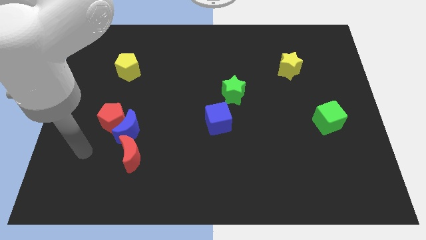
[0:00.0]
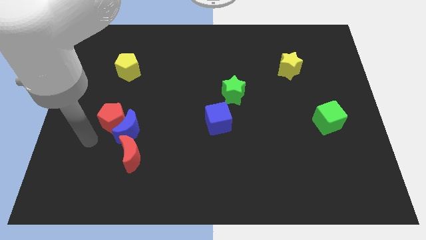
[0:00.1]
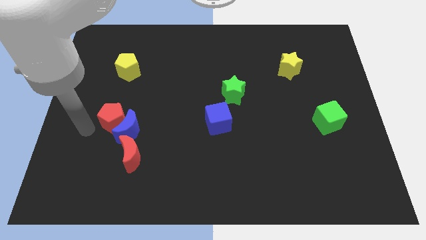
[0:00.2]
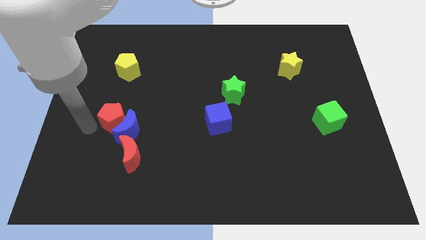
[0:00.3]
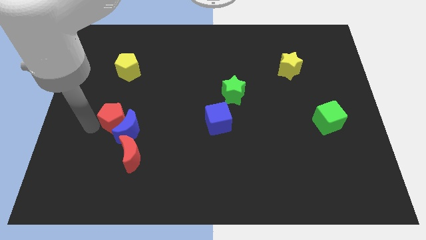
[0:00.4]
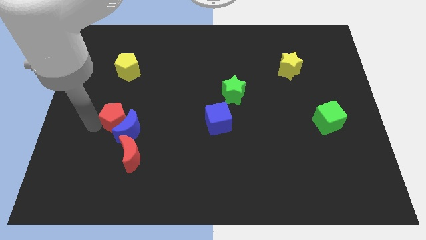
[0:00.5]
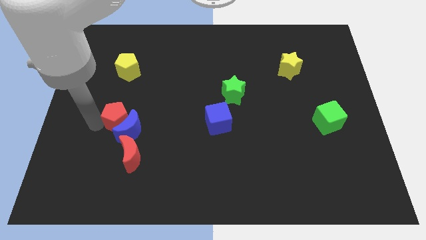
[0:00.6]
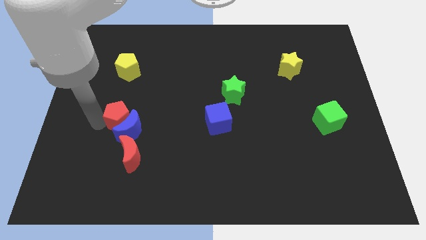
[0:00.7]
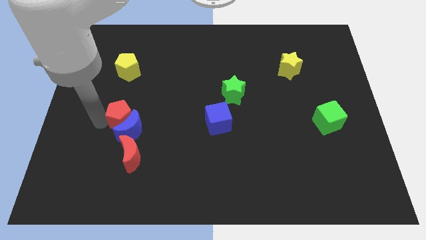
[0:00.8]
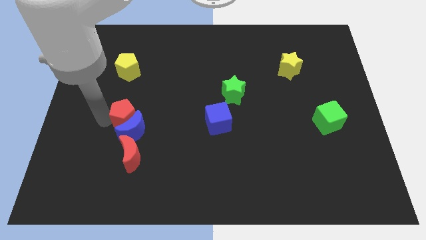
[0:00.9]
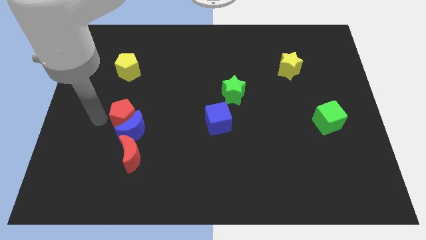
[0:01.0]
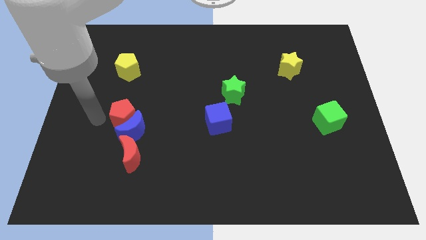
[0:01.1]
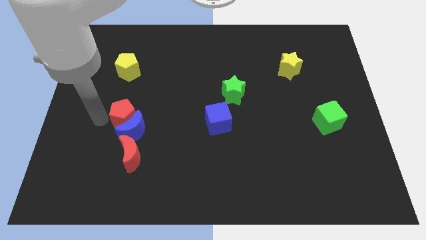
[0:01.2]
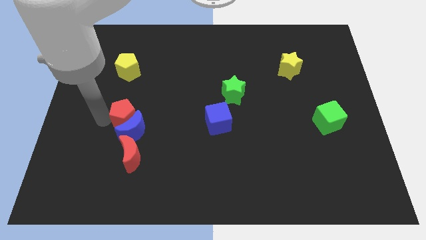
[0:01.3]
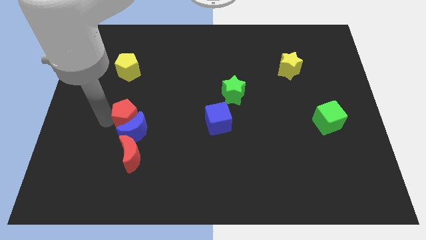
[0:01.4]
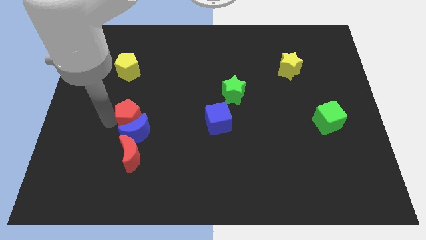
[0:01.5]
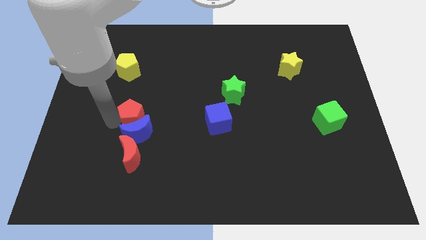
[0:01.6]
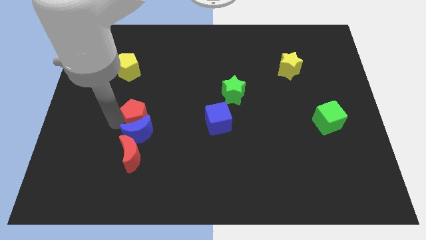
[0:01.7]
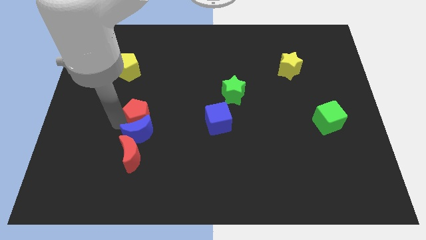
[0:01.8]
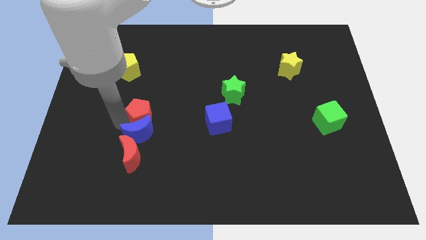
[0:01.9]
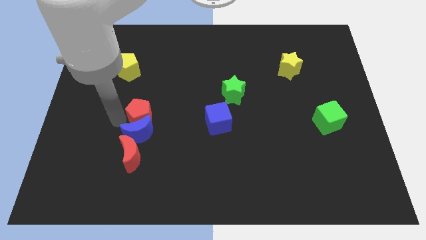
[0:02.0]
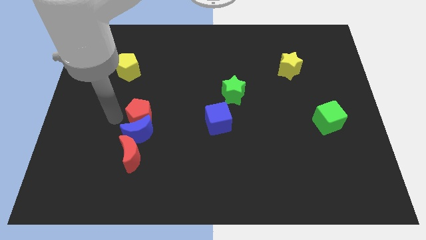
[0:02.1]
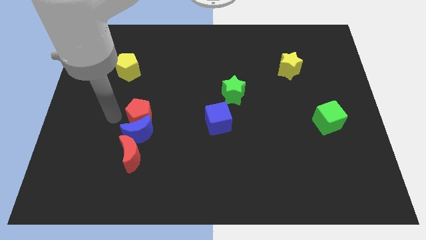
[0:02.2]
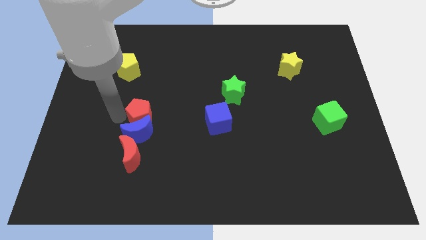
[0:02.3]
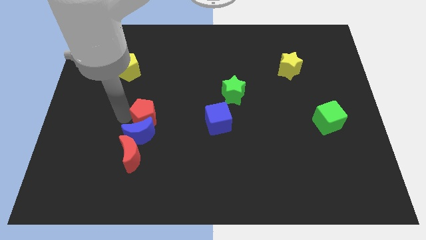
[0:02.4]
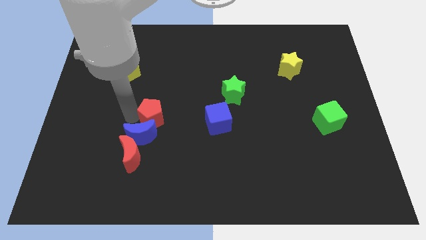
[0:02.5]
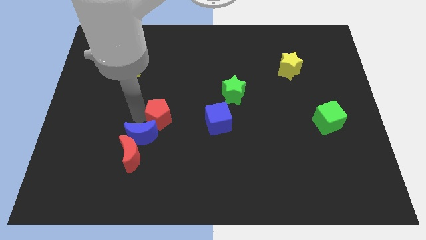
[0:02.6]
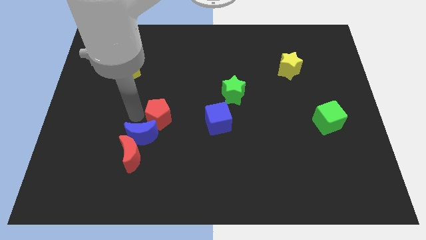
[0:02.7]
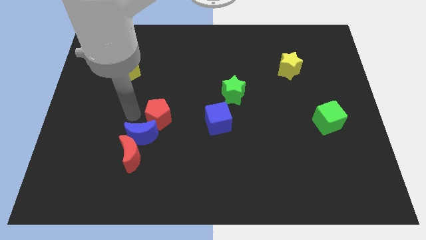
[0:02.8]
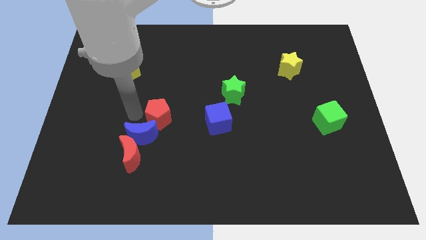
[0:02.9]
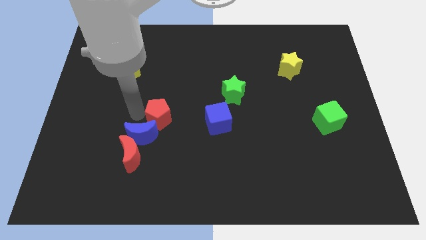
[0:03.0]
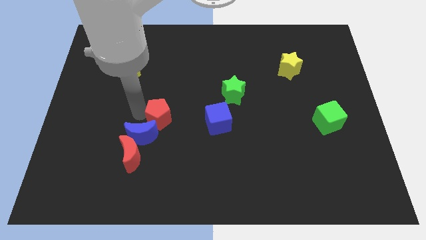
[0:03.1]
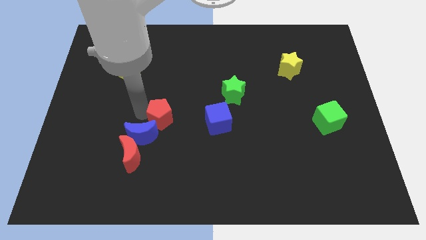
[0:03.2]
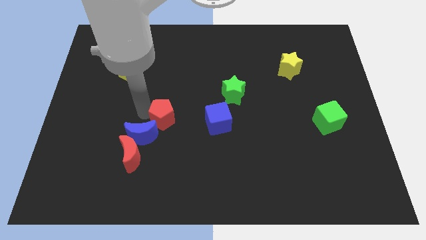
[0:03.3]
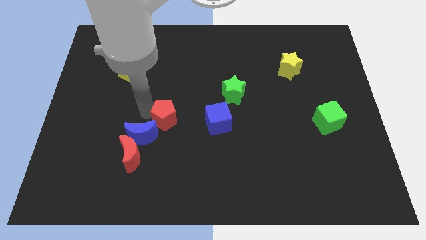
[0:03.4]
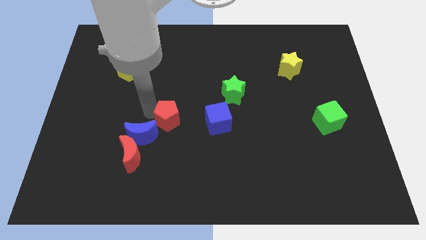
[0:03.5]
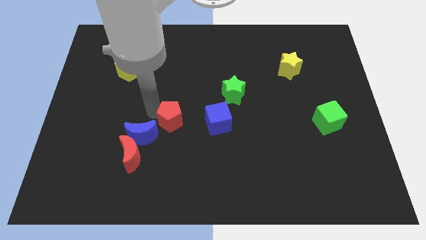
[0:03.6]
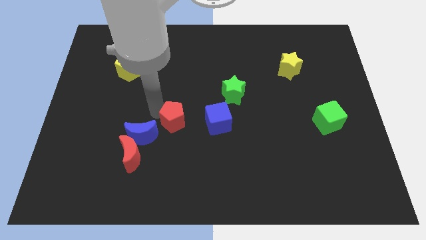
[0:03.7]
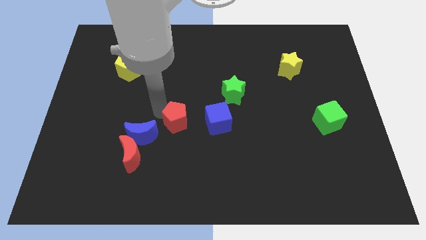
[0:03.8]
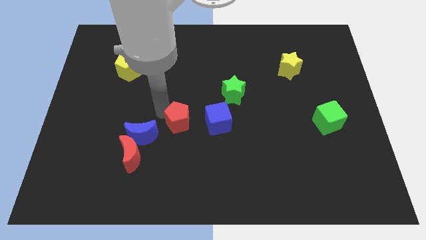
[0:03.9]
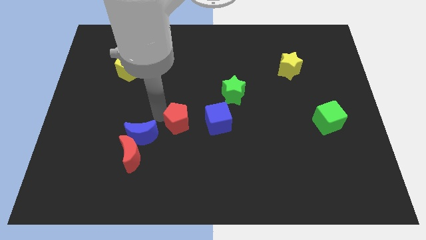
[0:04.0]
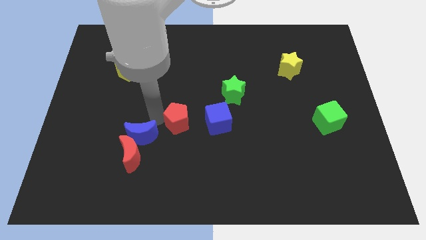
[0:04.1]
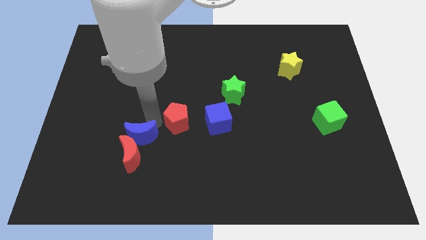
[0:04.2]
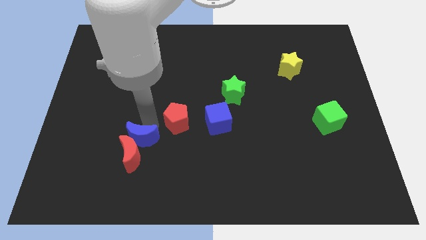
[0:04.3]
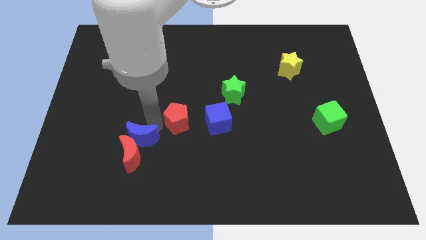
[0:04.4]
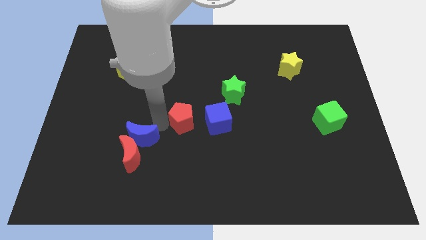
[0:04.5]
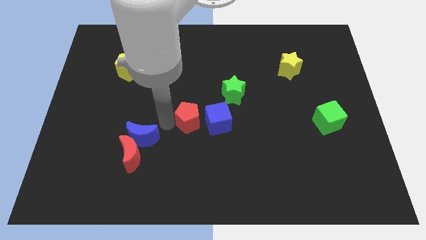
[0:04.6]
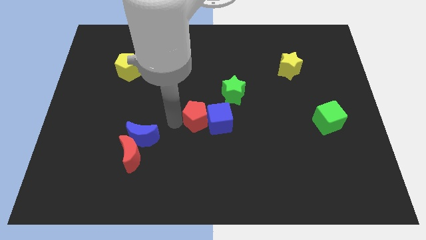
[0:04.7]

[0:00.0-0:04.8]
push the red pentagon next to the blue cube

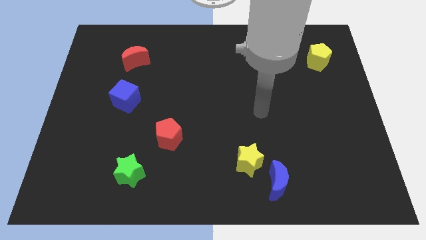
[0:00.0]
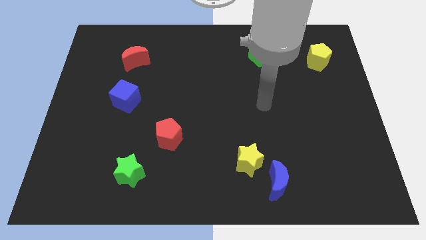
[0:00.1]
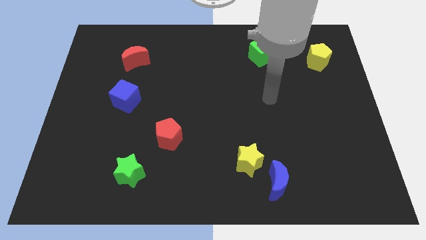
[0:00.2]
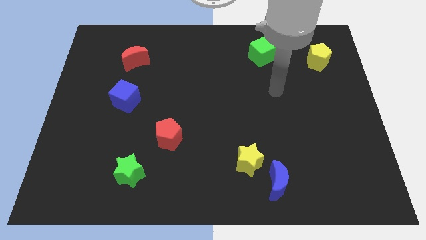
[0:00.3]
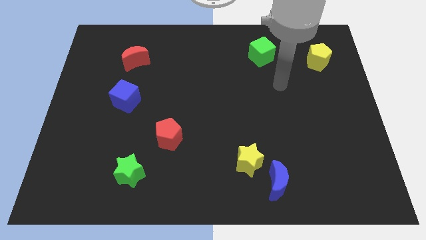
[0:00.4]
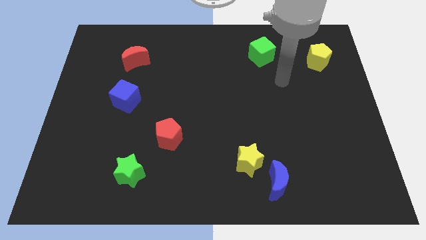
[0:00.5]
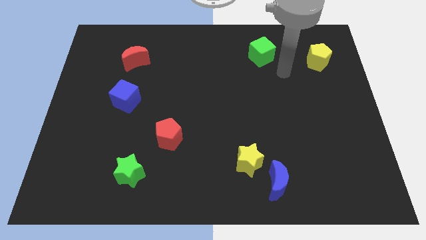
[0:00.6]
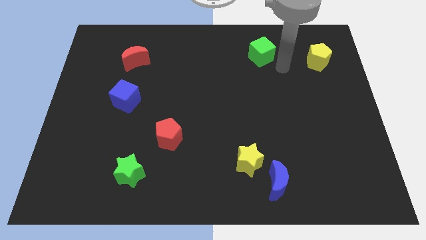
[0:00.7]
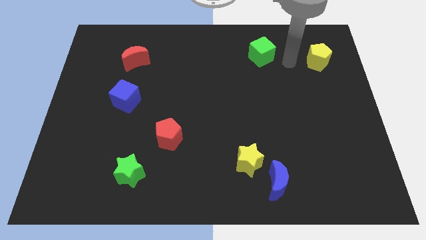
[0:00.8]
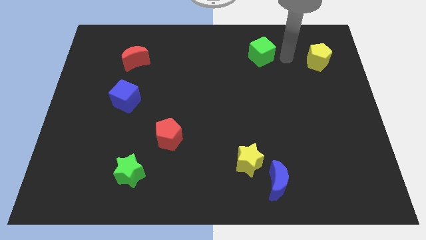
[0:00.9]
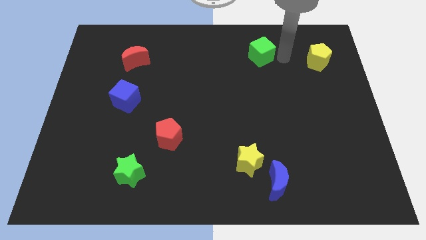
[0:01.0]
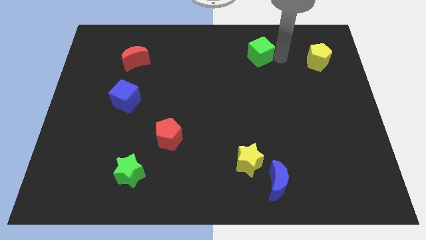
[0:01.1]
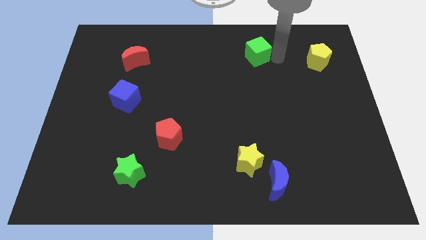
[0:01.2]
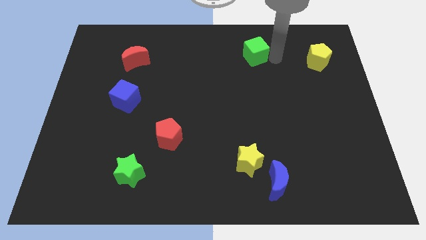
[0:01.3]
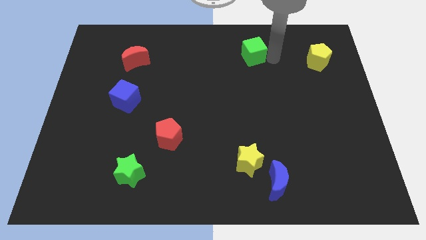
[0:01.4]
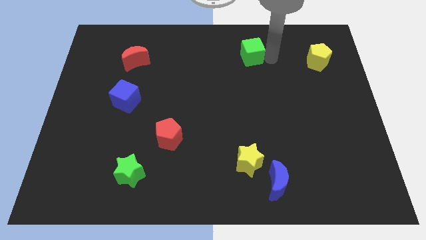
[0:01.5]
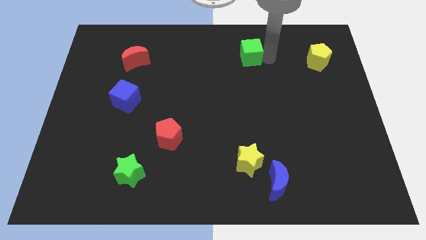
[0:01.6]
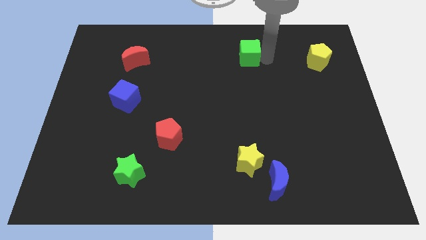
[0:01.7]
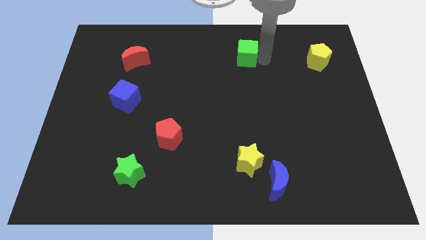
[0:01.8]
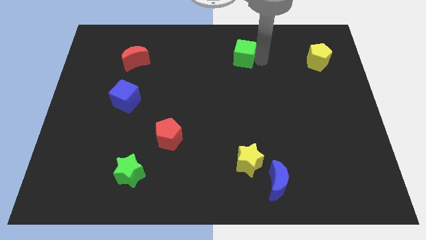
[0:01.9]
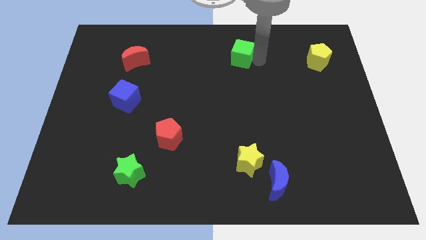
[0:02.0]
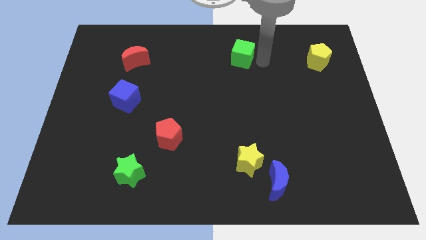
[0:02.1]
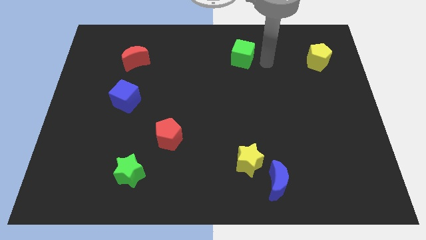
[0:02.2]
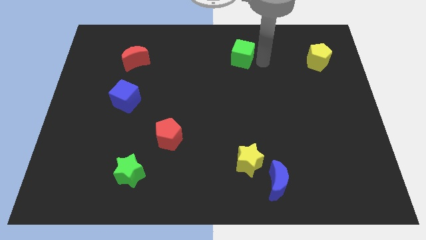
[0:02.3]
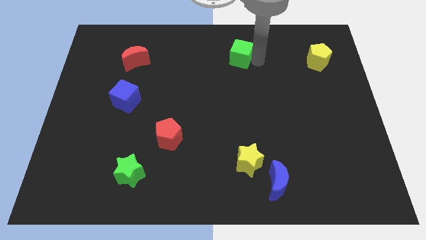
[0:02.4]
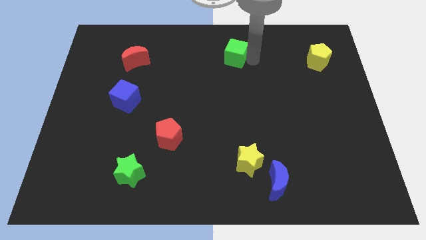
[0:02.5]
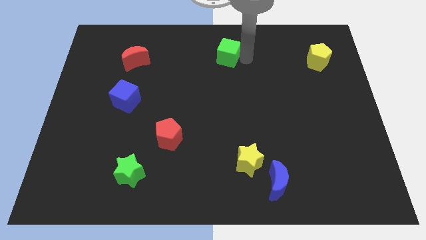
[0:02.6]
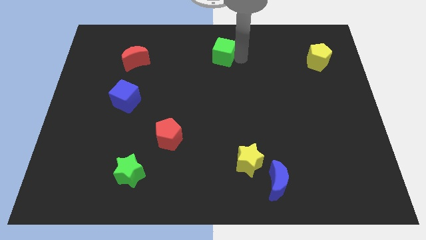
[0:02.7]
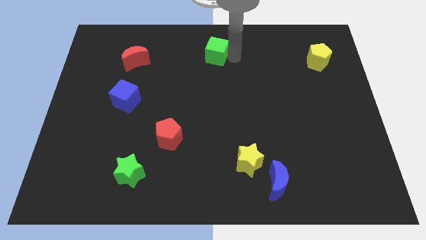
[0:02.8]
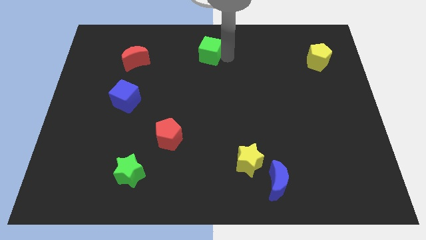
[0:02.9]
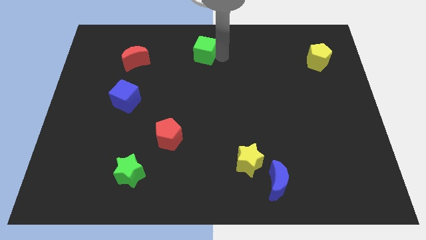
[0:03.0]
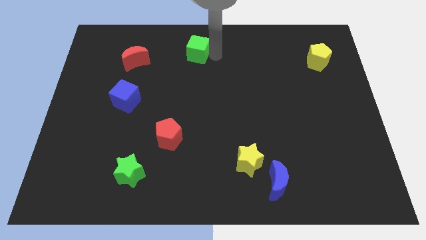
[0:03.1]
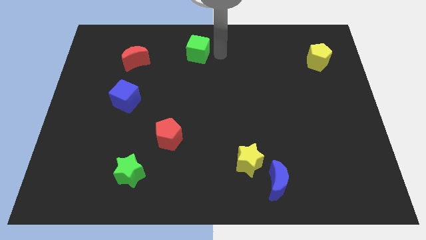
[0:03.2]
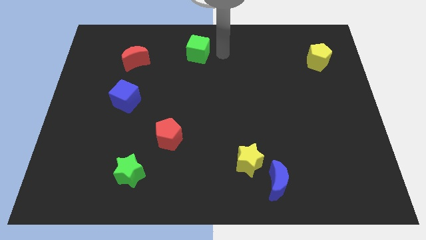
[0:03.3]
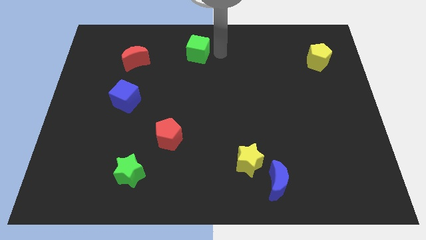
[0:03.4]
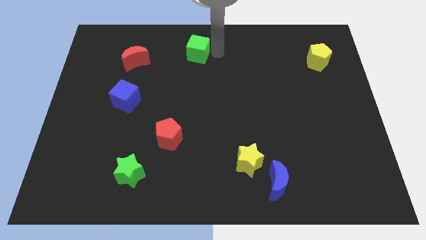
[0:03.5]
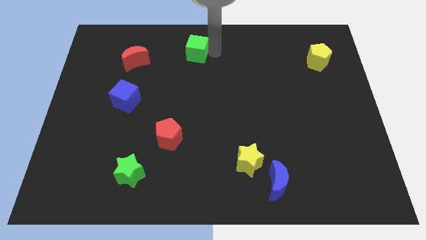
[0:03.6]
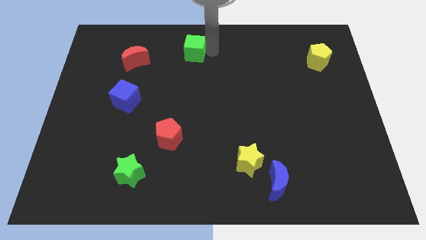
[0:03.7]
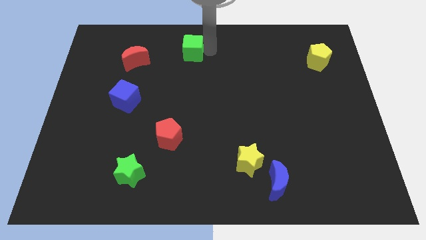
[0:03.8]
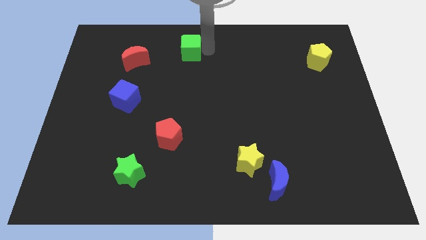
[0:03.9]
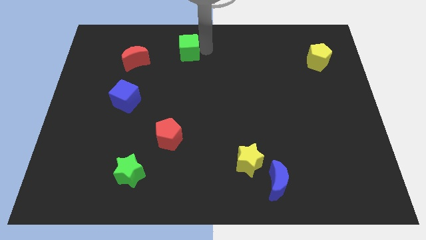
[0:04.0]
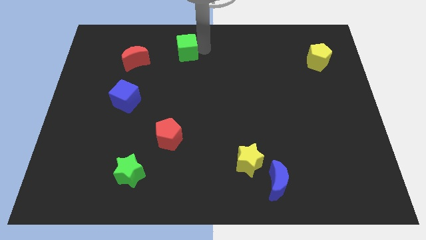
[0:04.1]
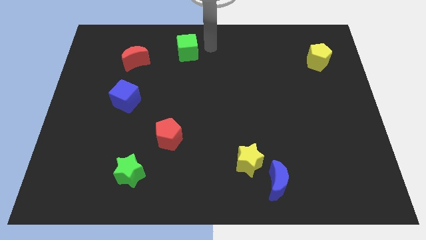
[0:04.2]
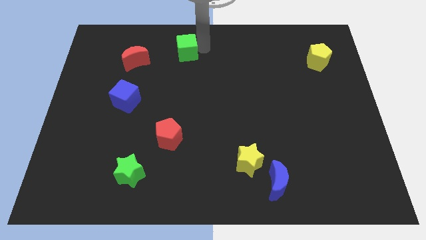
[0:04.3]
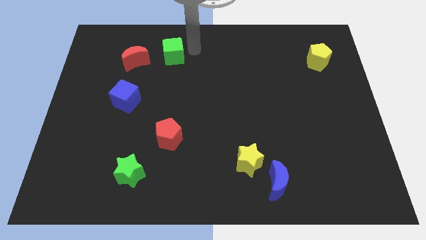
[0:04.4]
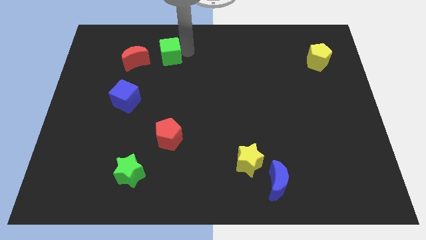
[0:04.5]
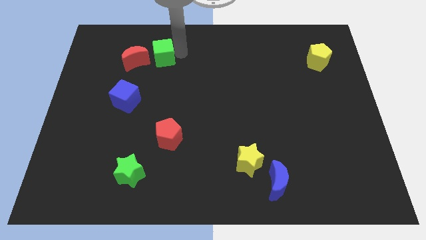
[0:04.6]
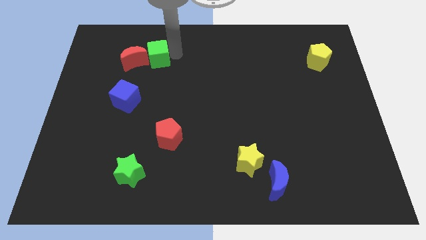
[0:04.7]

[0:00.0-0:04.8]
put the green cube to the red moon
